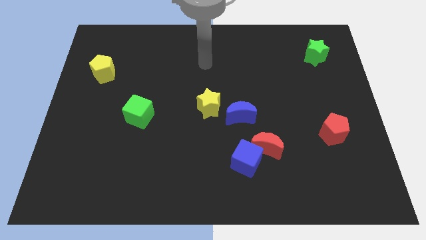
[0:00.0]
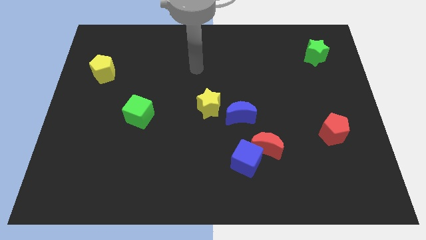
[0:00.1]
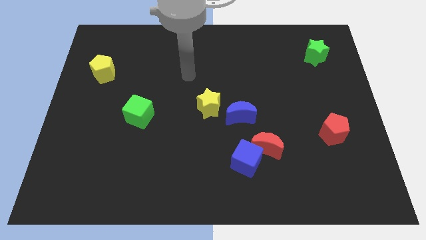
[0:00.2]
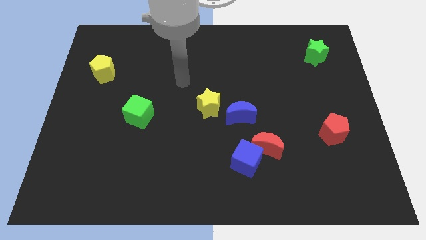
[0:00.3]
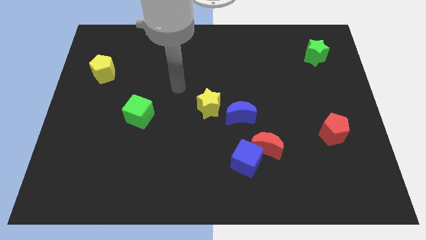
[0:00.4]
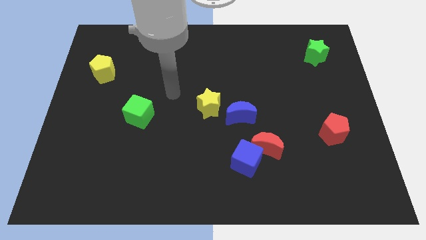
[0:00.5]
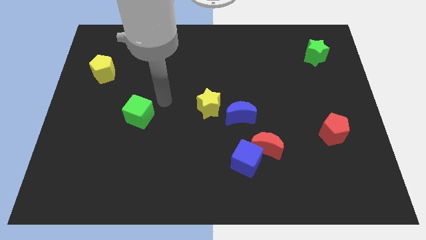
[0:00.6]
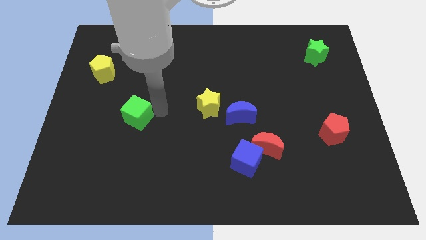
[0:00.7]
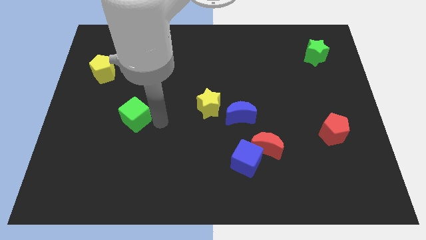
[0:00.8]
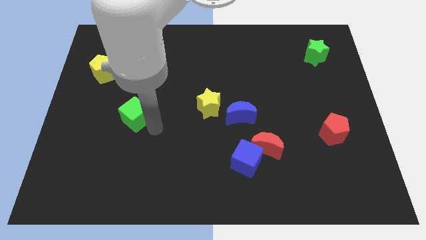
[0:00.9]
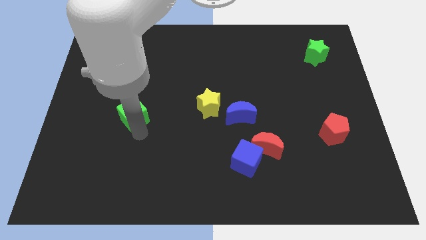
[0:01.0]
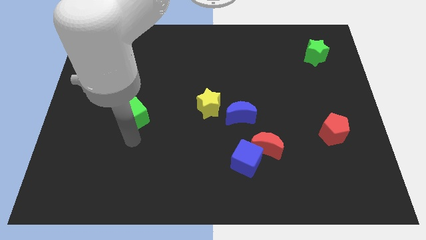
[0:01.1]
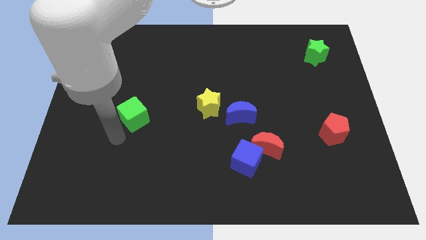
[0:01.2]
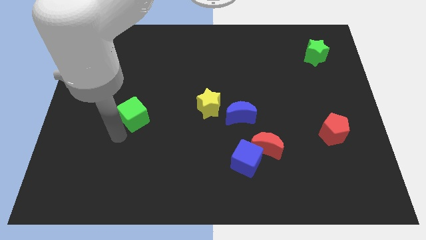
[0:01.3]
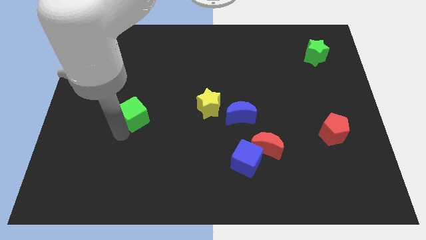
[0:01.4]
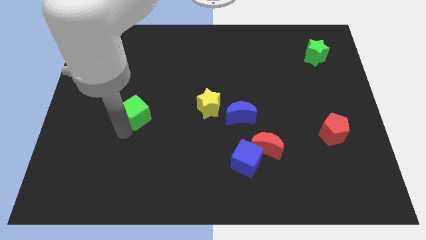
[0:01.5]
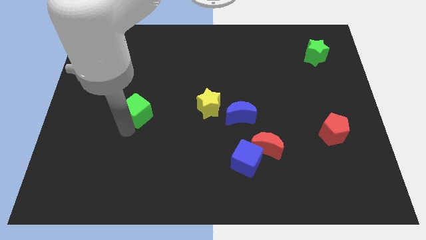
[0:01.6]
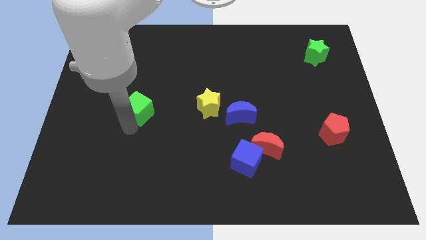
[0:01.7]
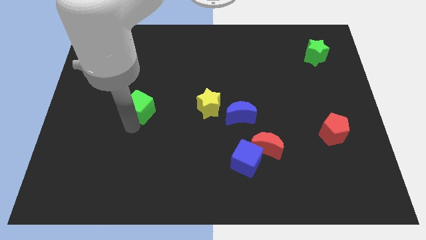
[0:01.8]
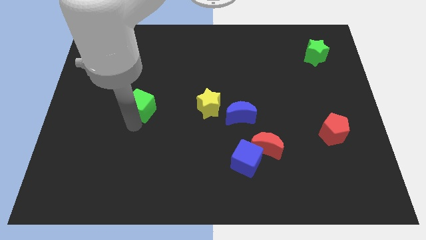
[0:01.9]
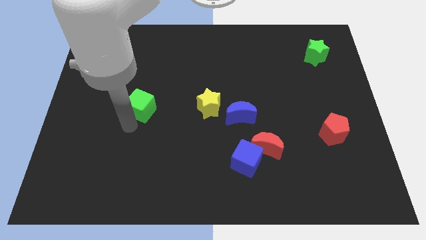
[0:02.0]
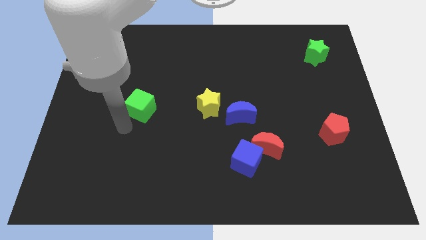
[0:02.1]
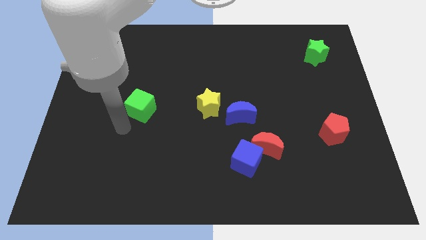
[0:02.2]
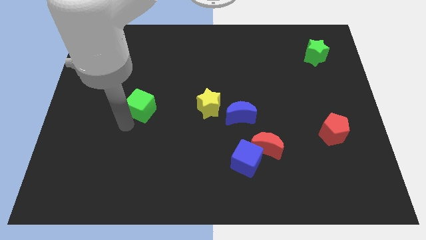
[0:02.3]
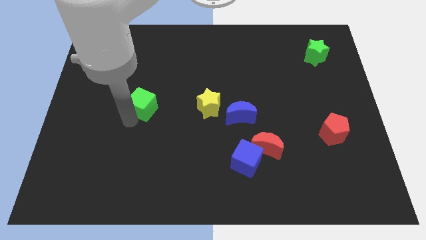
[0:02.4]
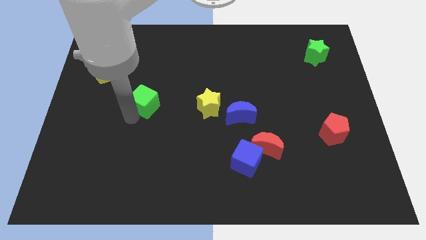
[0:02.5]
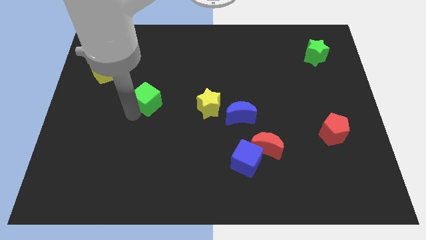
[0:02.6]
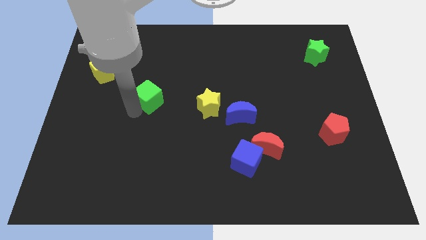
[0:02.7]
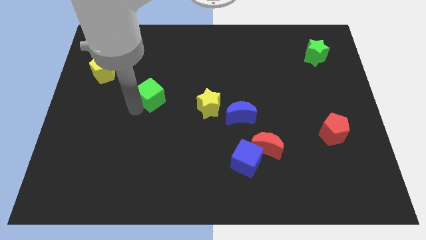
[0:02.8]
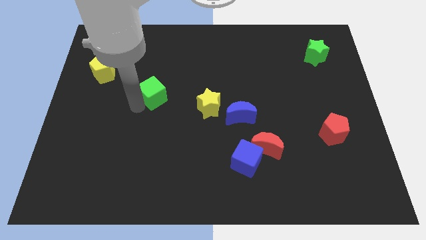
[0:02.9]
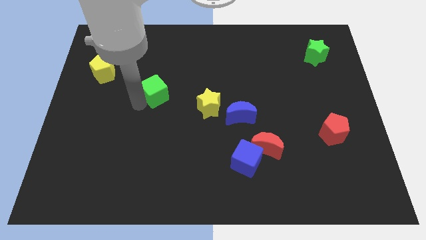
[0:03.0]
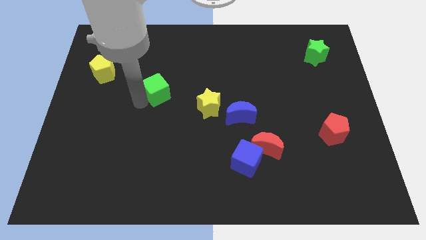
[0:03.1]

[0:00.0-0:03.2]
slide the green cube diagonally up and to the right a bit

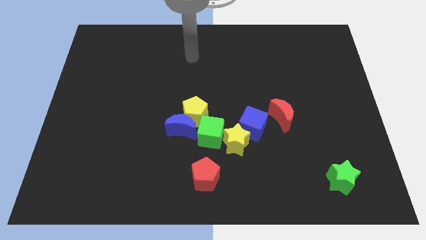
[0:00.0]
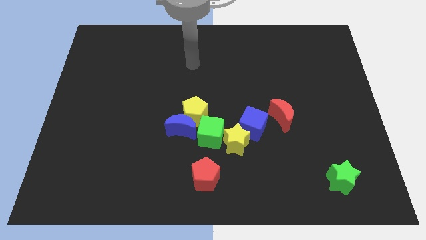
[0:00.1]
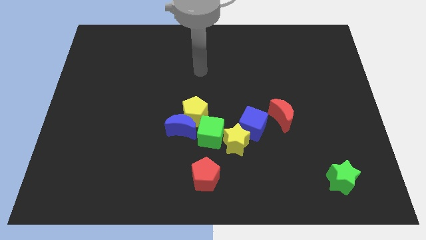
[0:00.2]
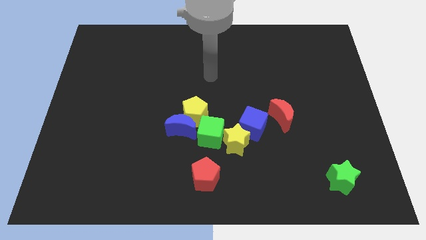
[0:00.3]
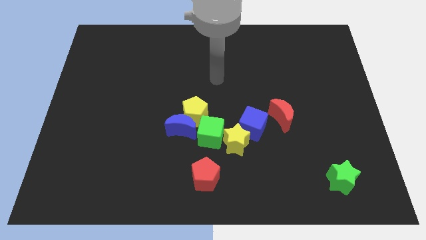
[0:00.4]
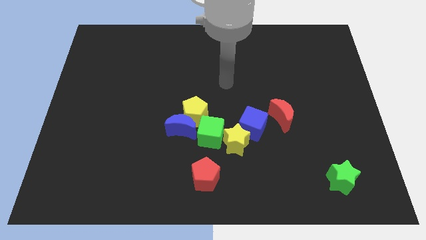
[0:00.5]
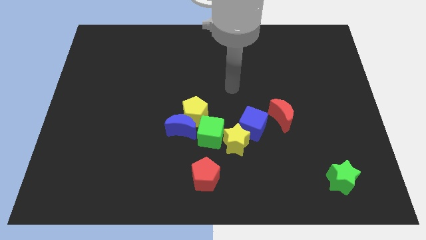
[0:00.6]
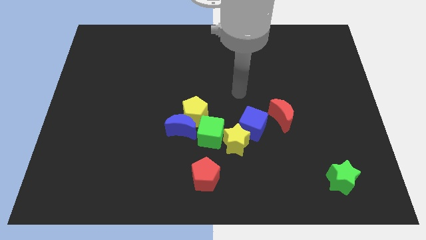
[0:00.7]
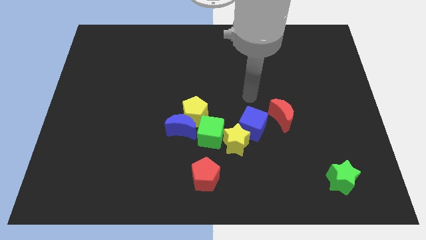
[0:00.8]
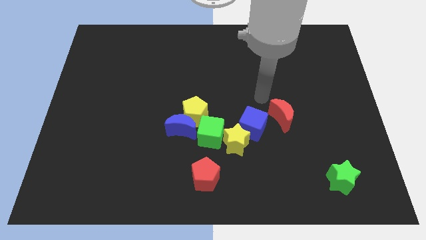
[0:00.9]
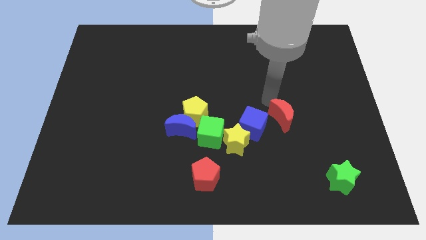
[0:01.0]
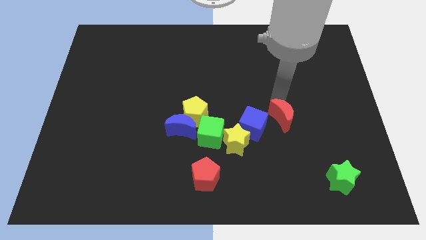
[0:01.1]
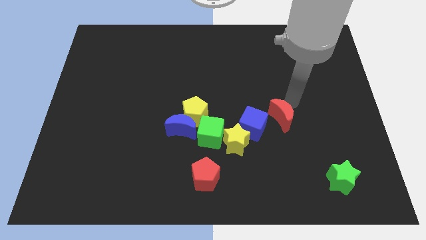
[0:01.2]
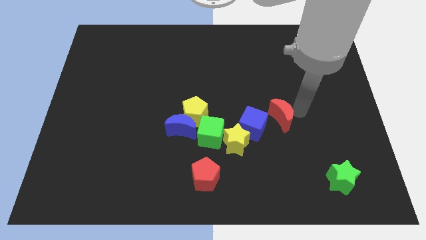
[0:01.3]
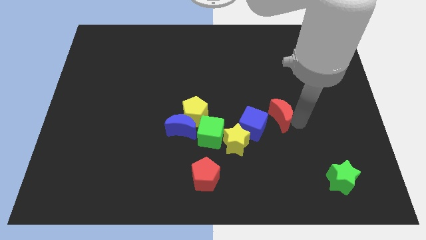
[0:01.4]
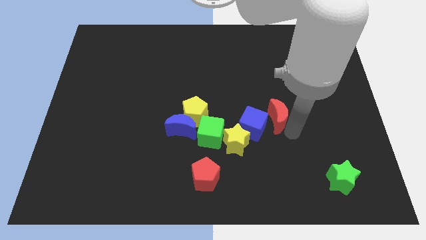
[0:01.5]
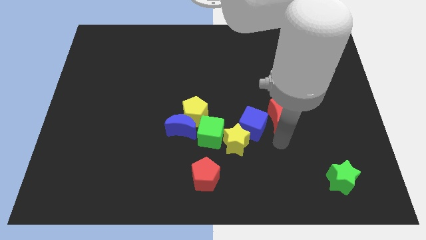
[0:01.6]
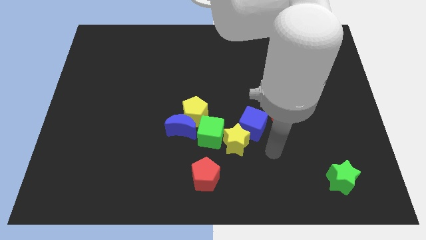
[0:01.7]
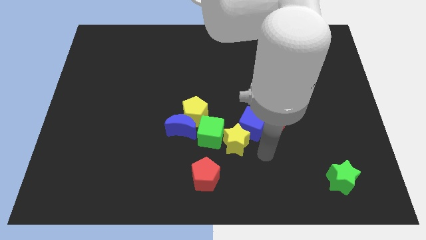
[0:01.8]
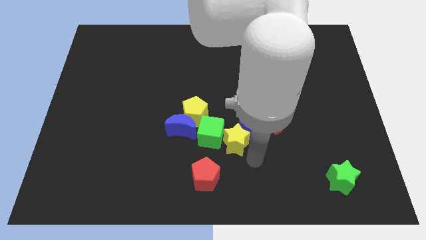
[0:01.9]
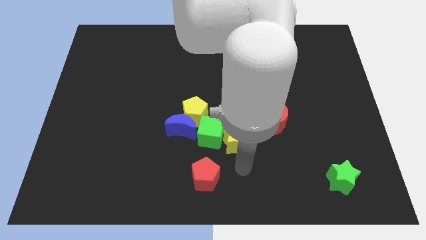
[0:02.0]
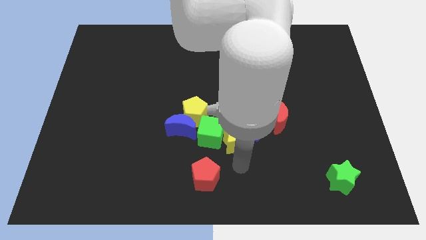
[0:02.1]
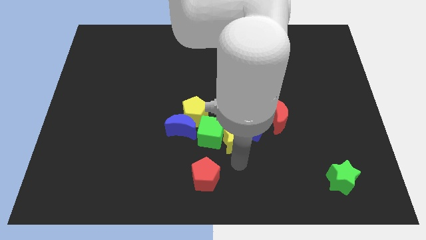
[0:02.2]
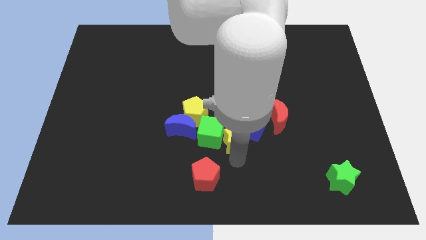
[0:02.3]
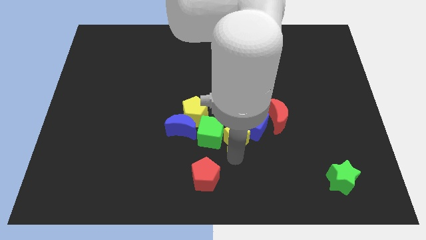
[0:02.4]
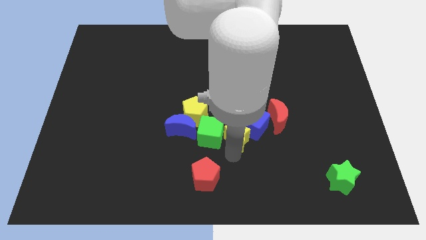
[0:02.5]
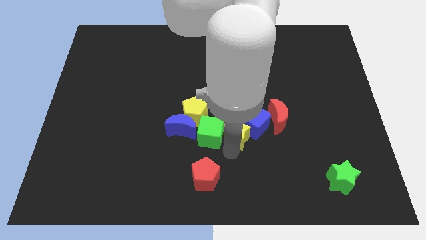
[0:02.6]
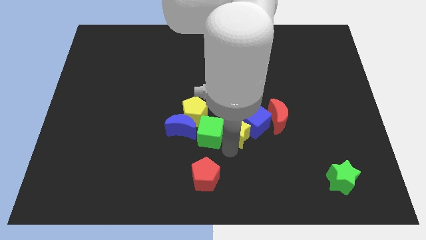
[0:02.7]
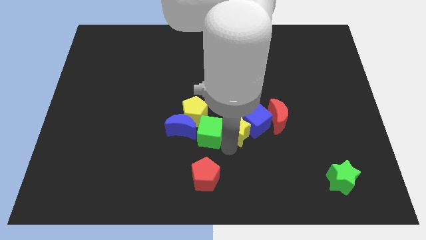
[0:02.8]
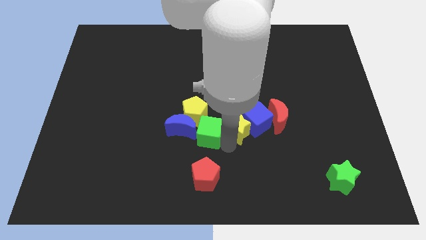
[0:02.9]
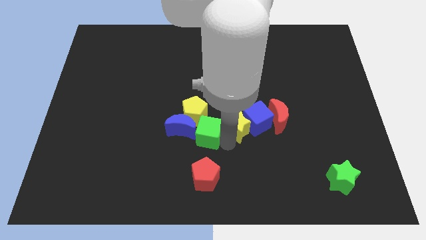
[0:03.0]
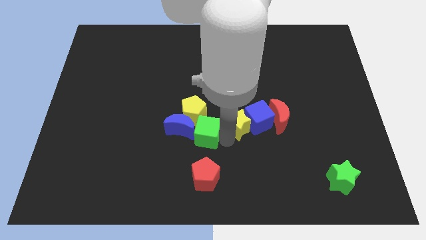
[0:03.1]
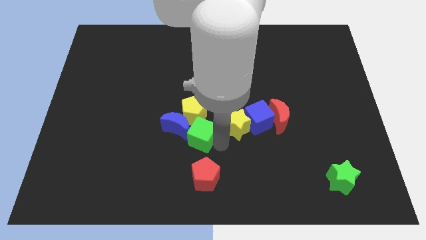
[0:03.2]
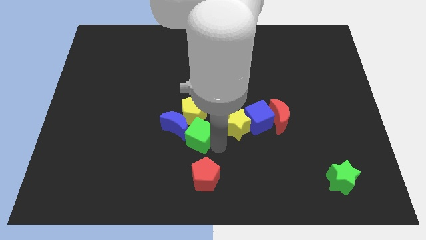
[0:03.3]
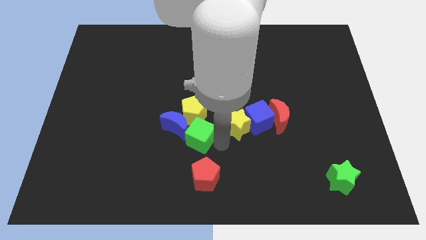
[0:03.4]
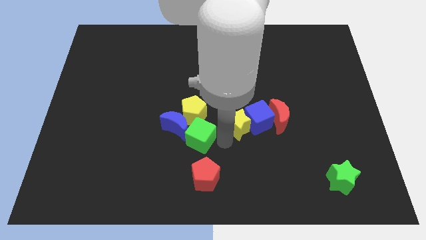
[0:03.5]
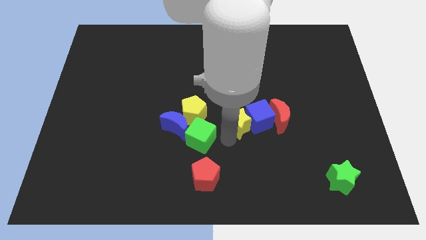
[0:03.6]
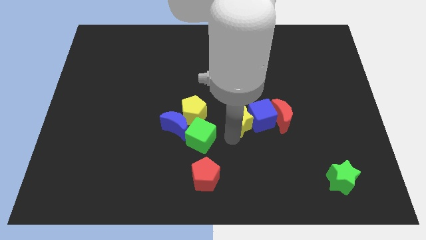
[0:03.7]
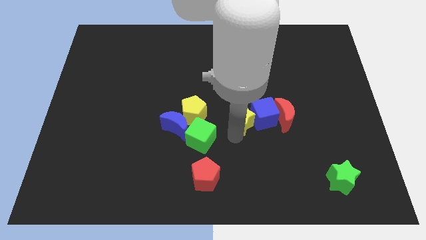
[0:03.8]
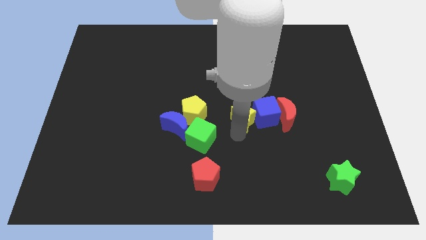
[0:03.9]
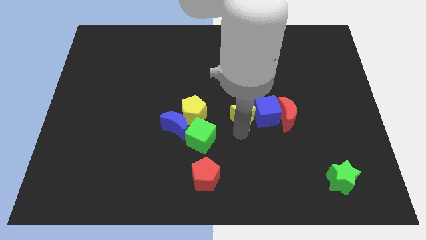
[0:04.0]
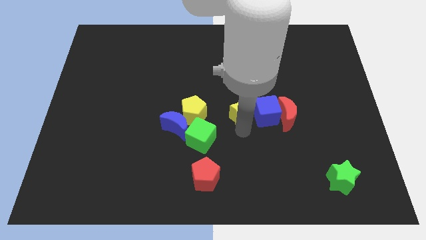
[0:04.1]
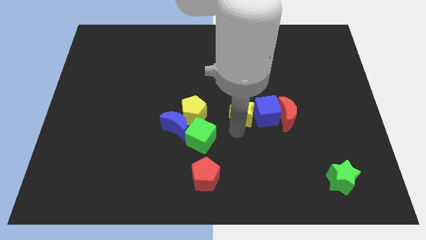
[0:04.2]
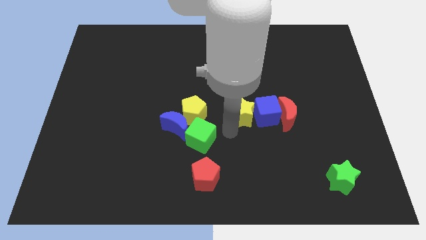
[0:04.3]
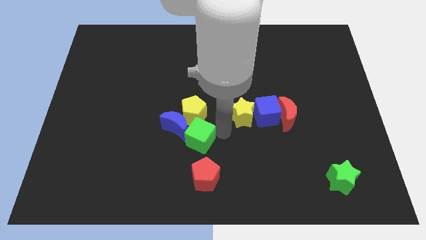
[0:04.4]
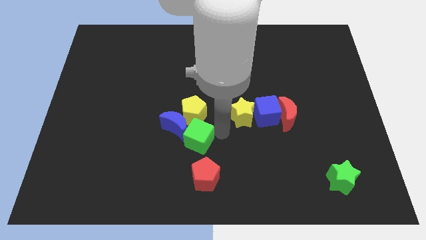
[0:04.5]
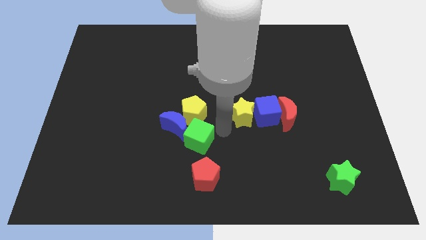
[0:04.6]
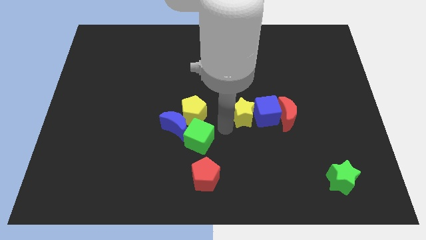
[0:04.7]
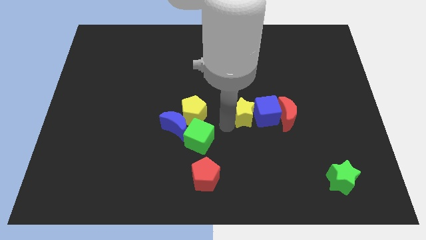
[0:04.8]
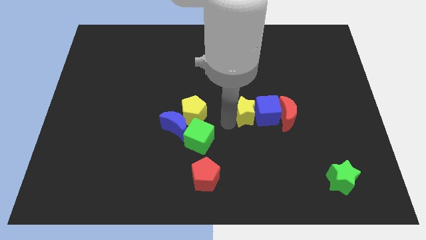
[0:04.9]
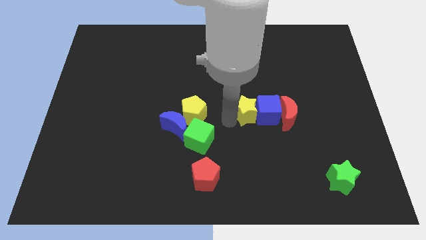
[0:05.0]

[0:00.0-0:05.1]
move the yellow star upwards and to the right somewhat
